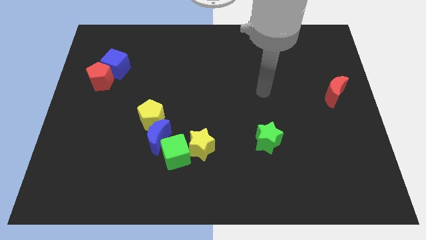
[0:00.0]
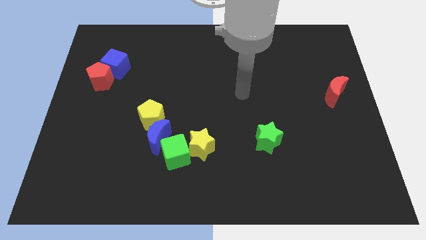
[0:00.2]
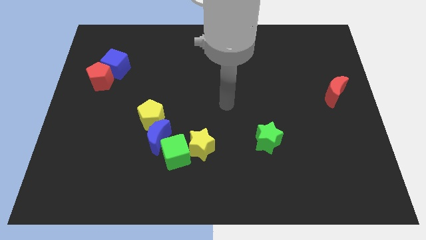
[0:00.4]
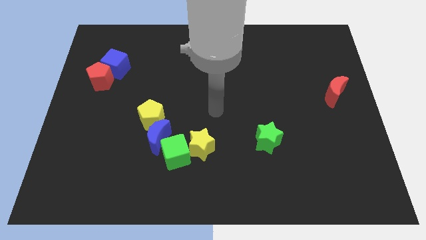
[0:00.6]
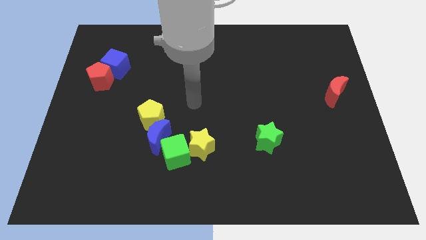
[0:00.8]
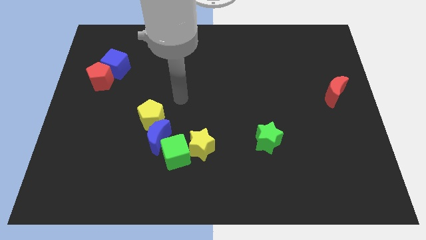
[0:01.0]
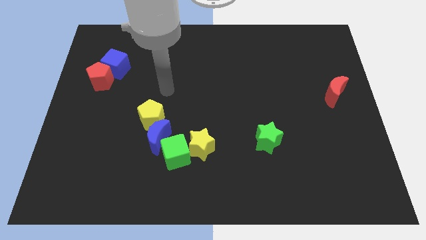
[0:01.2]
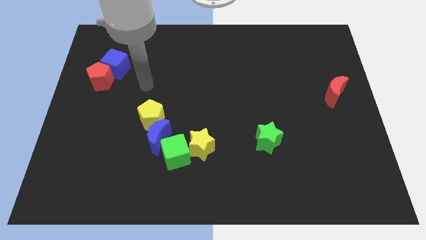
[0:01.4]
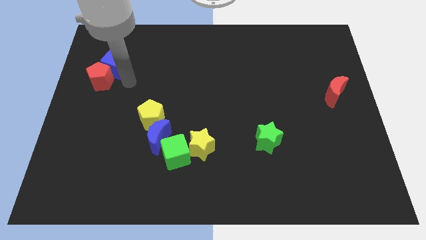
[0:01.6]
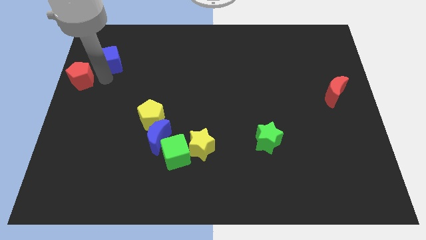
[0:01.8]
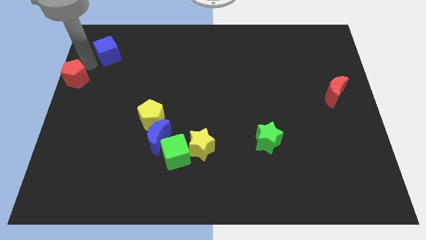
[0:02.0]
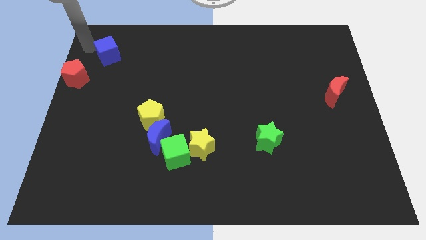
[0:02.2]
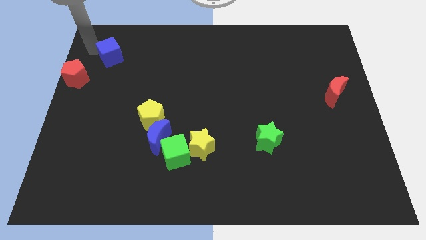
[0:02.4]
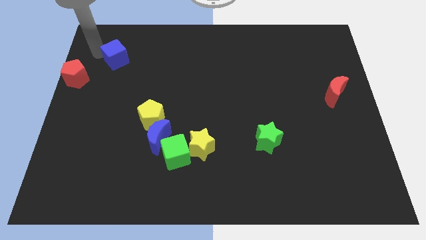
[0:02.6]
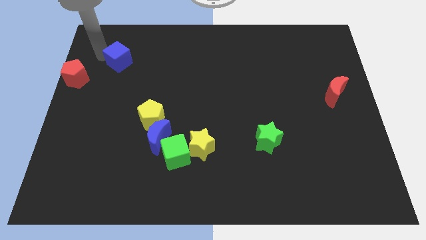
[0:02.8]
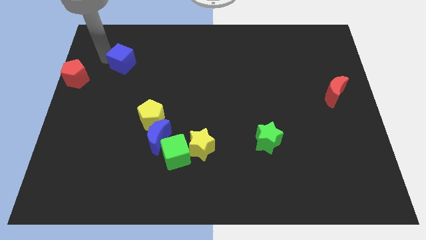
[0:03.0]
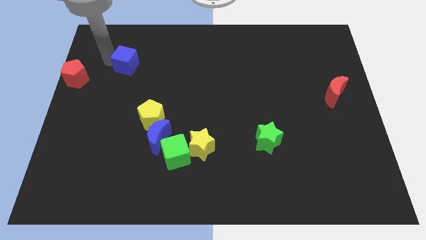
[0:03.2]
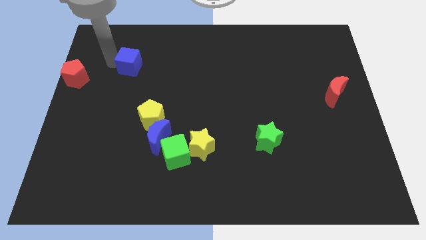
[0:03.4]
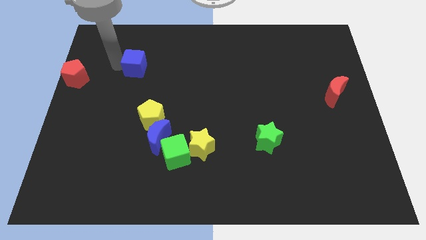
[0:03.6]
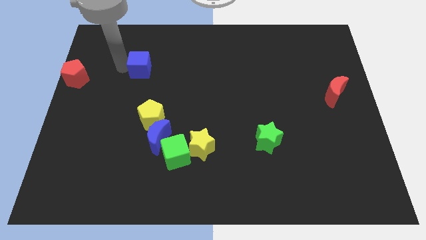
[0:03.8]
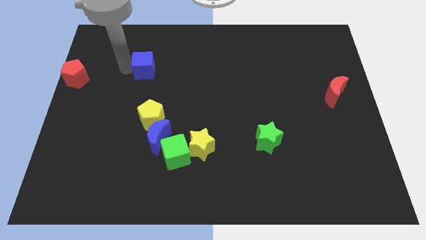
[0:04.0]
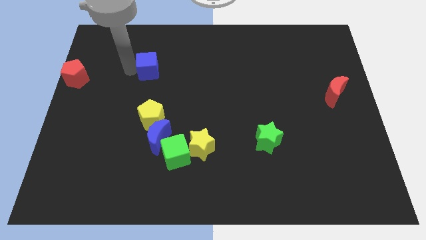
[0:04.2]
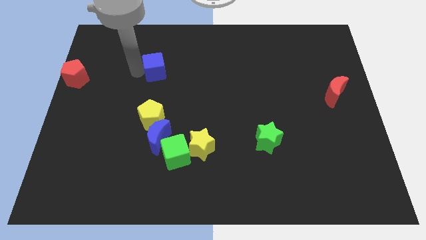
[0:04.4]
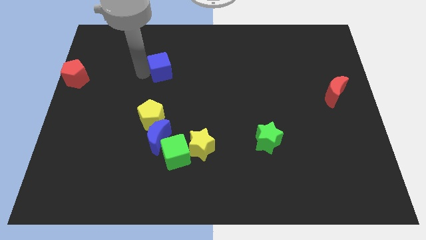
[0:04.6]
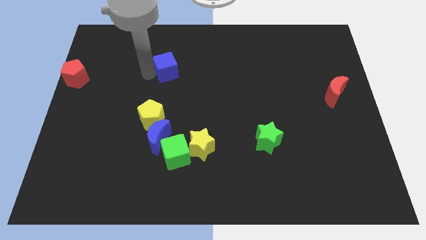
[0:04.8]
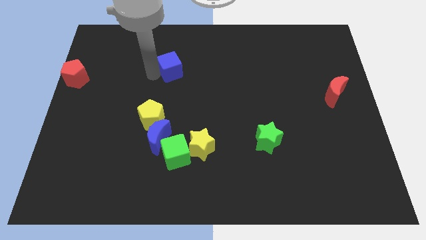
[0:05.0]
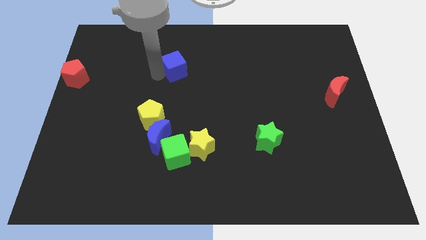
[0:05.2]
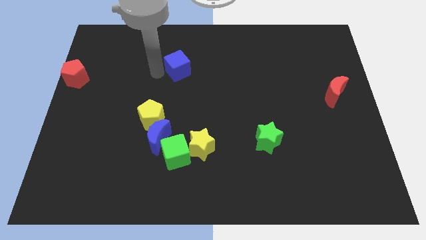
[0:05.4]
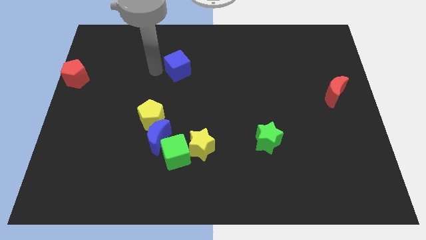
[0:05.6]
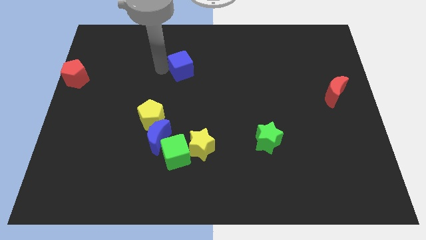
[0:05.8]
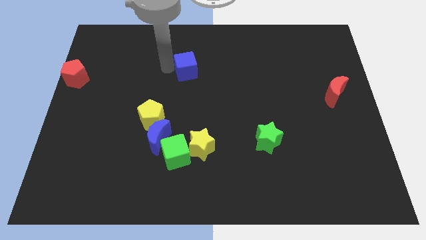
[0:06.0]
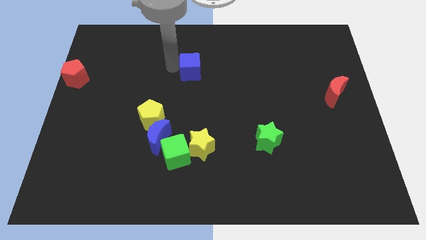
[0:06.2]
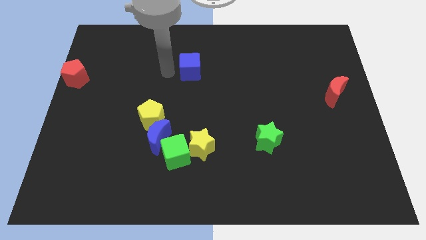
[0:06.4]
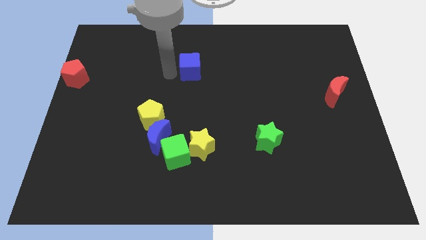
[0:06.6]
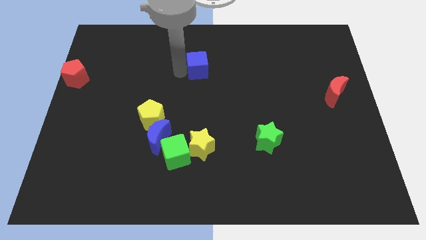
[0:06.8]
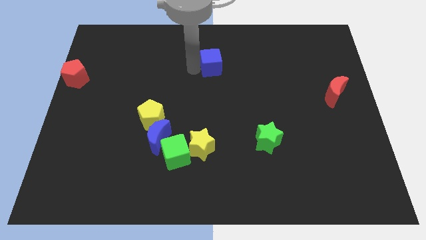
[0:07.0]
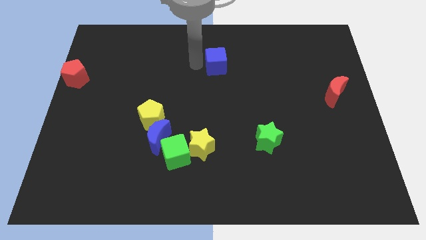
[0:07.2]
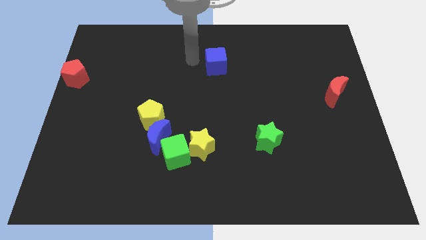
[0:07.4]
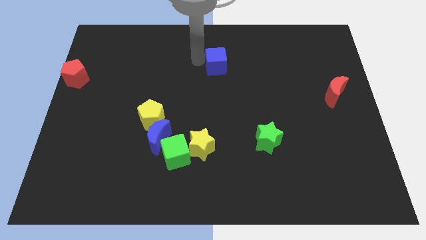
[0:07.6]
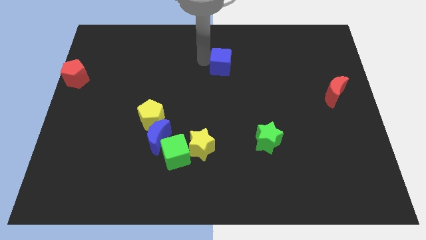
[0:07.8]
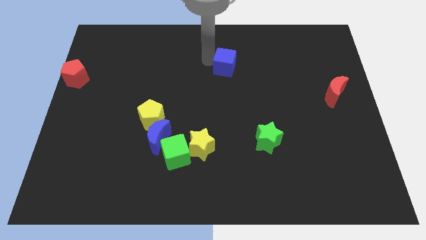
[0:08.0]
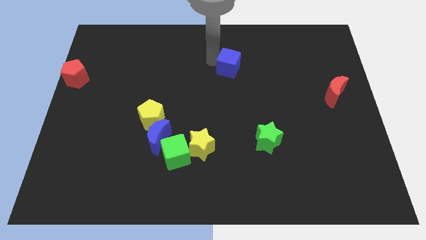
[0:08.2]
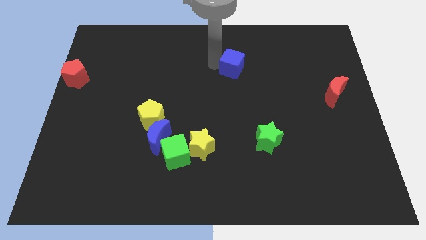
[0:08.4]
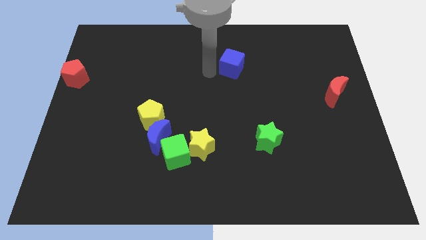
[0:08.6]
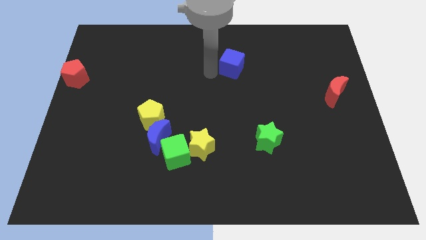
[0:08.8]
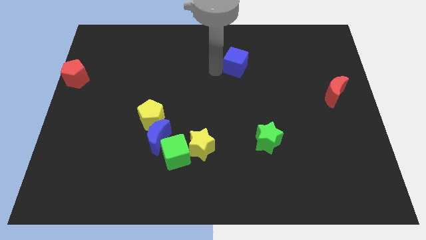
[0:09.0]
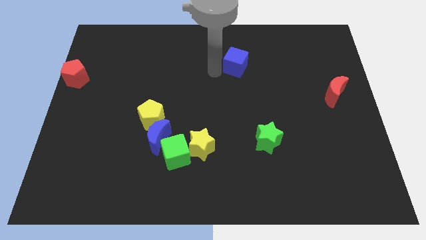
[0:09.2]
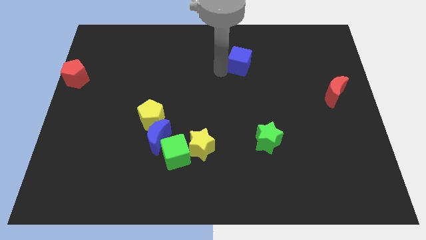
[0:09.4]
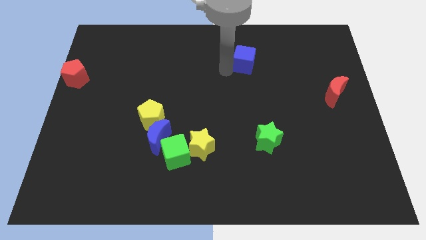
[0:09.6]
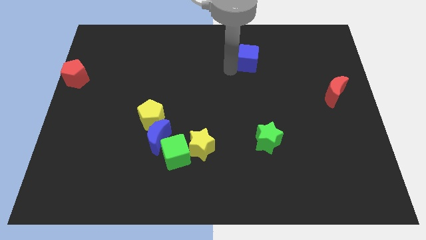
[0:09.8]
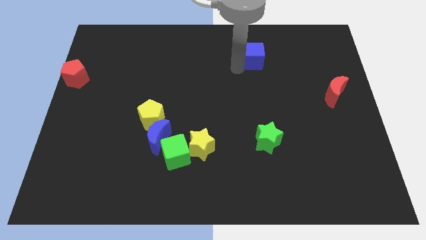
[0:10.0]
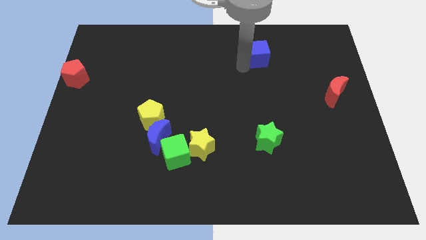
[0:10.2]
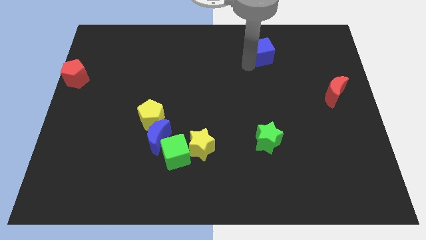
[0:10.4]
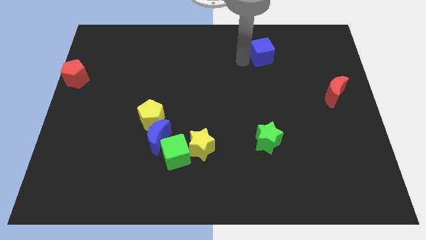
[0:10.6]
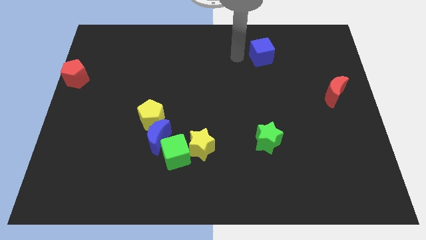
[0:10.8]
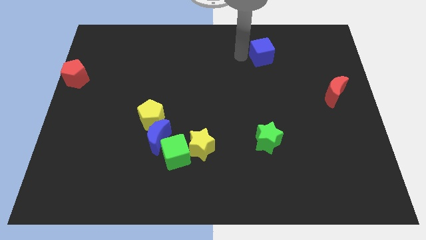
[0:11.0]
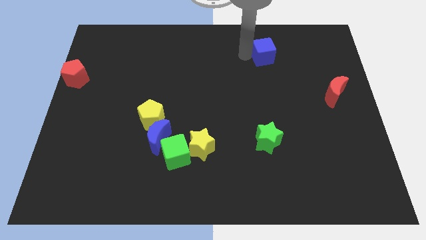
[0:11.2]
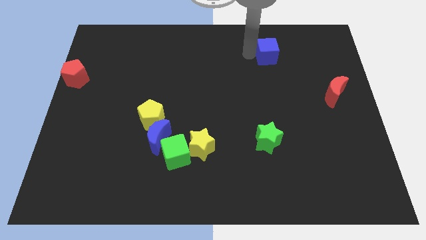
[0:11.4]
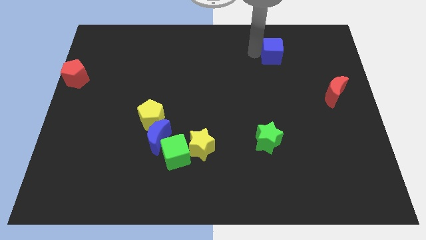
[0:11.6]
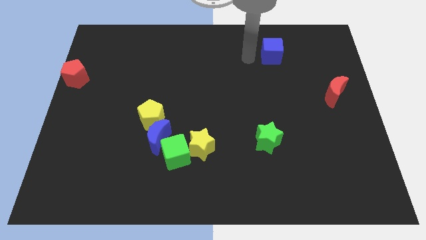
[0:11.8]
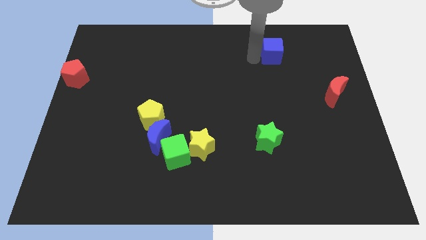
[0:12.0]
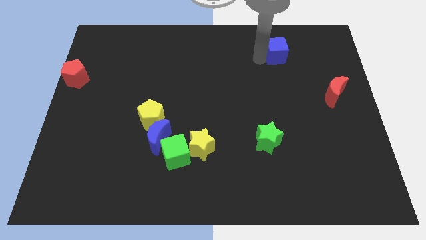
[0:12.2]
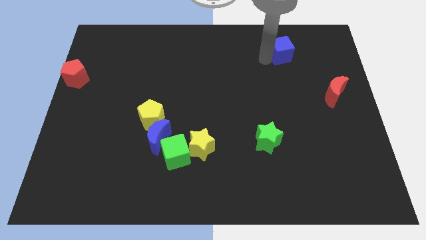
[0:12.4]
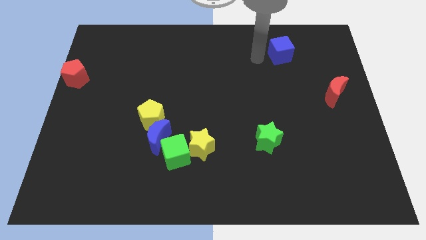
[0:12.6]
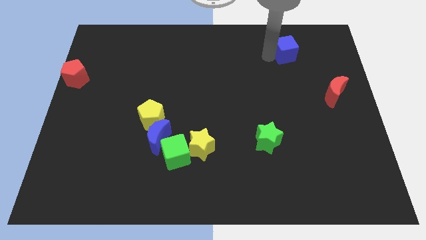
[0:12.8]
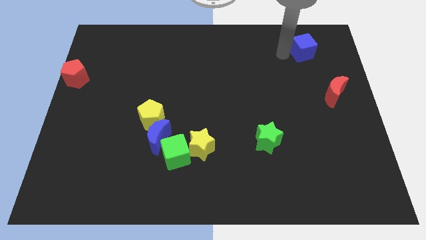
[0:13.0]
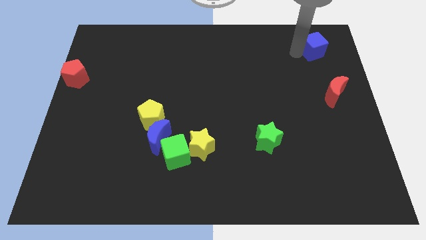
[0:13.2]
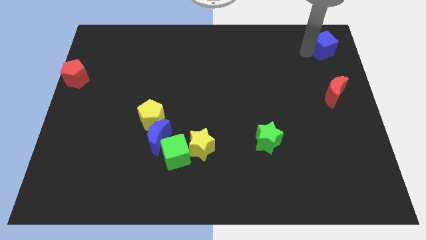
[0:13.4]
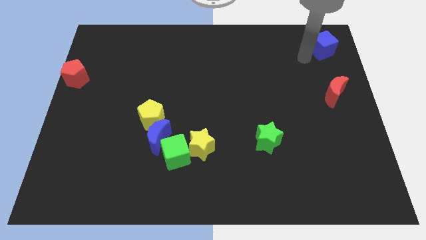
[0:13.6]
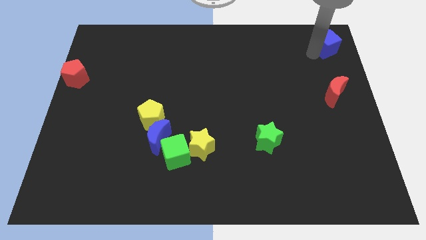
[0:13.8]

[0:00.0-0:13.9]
slide the blue cube to the top right
